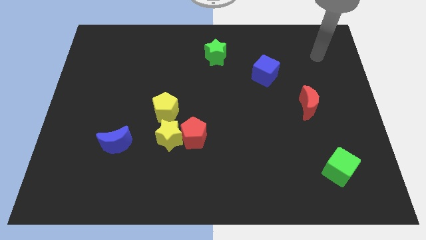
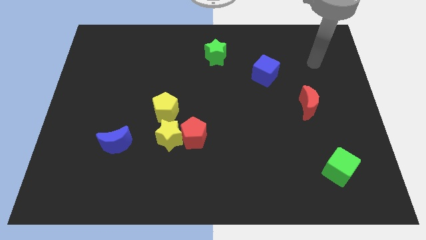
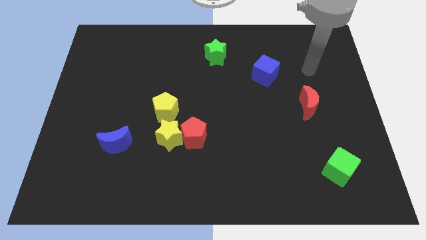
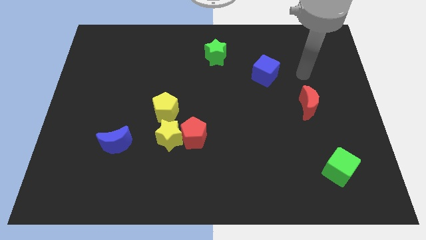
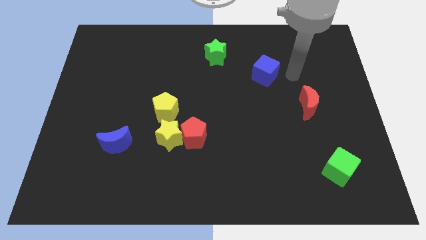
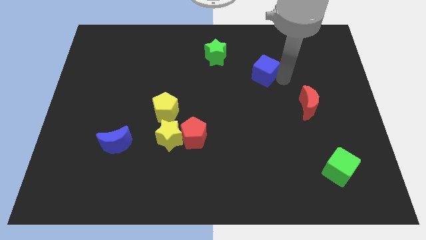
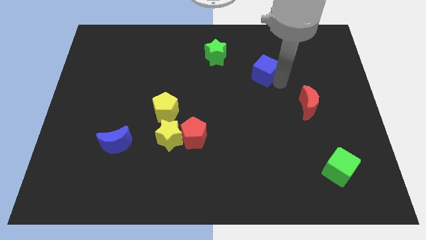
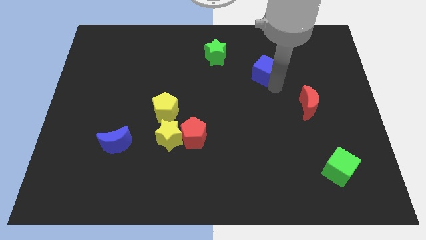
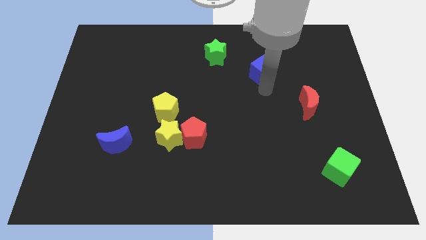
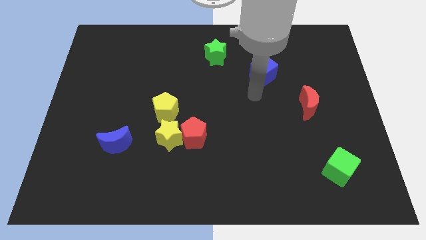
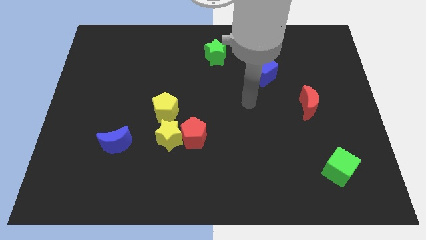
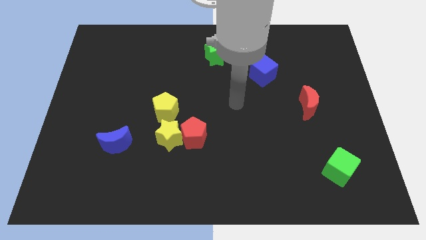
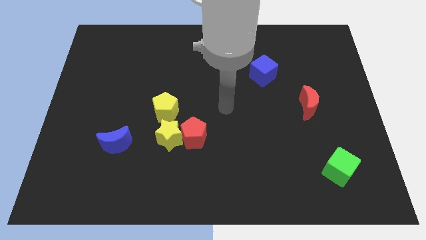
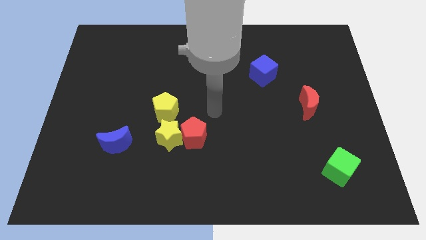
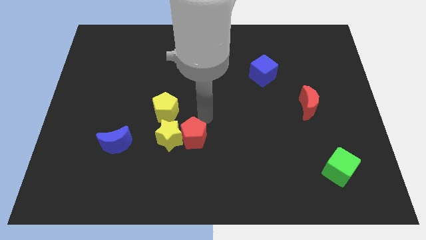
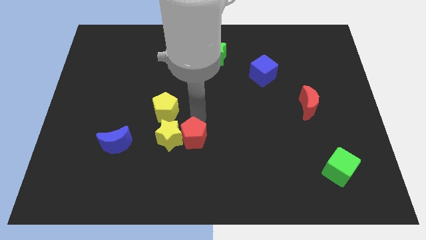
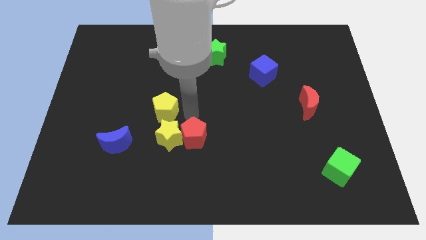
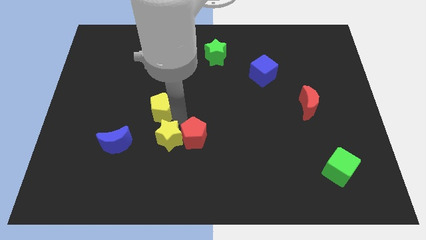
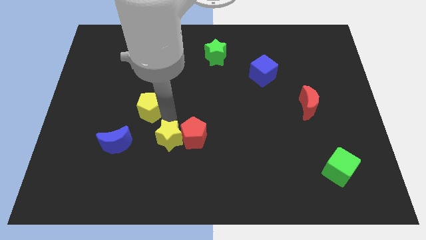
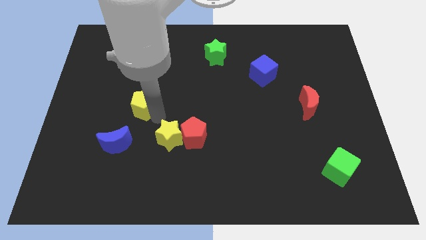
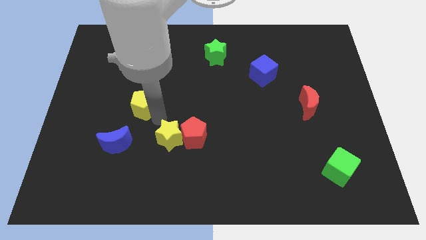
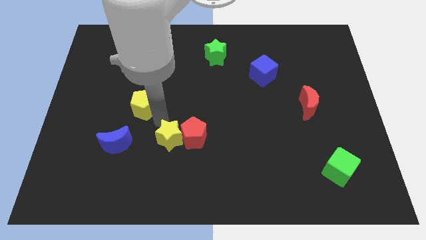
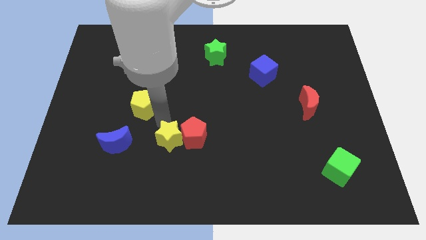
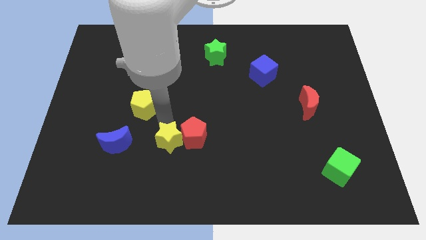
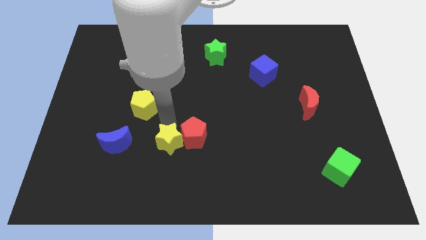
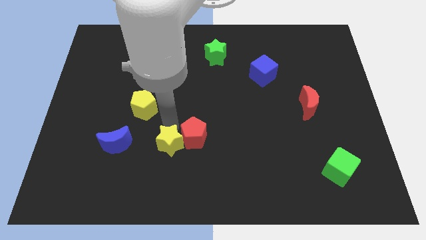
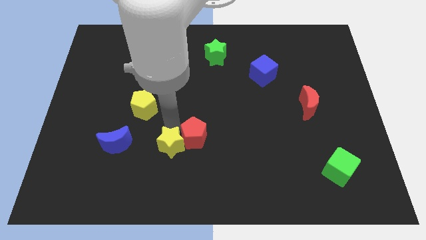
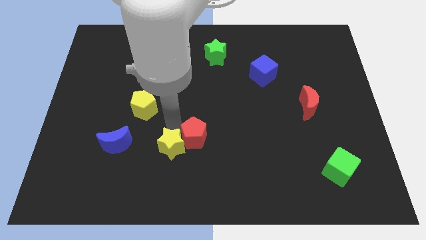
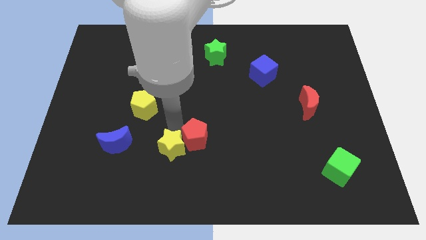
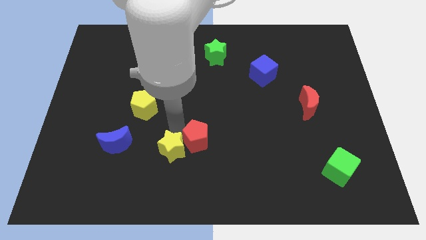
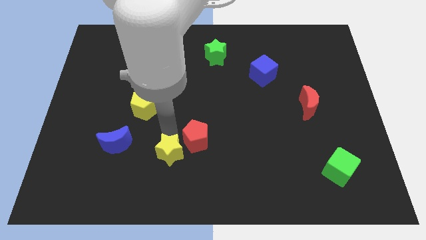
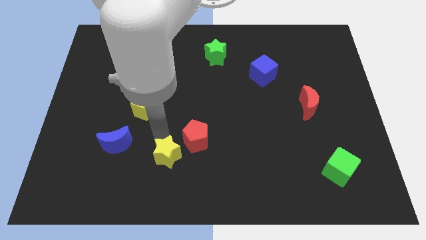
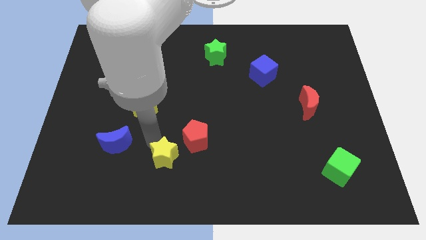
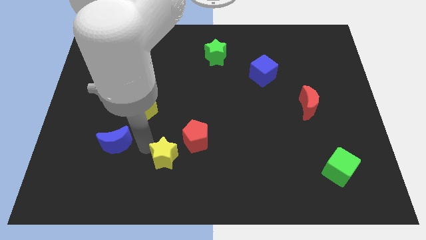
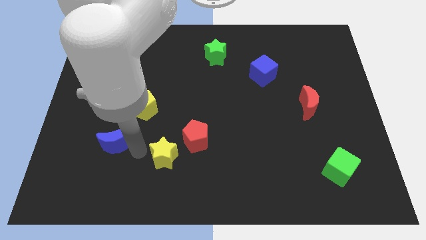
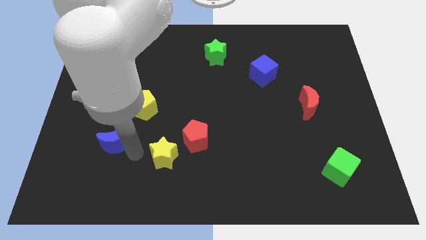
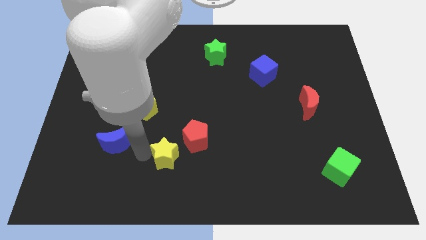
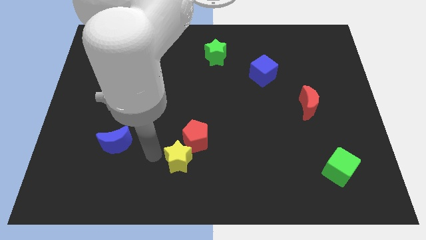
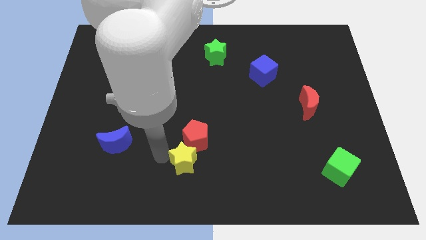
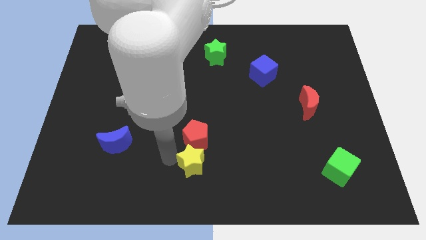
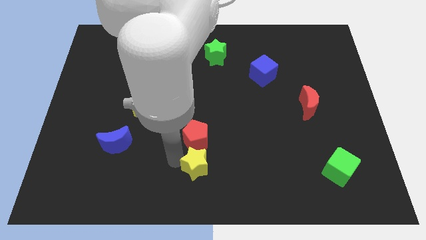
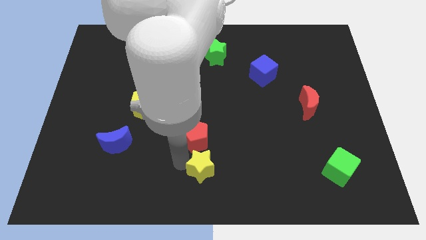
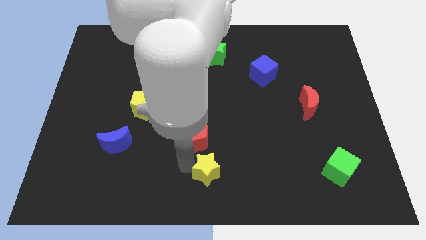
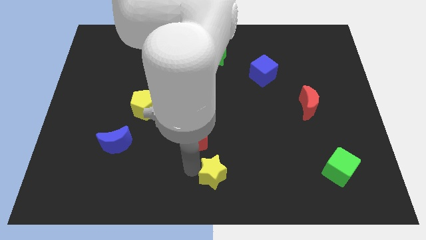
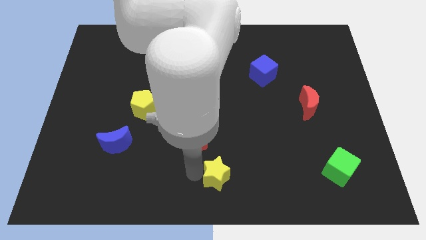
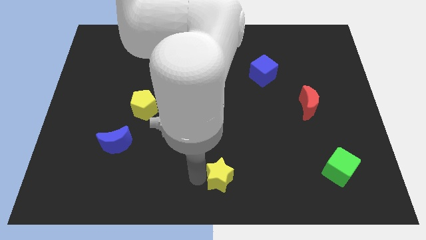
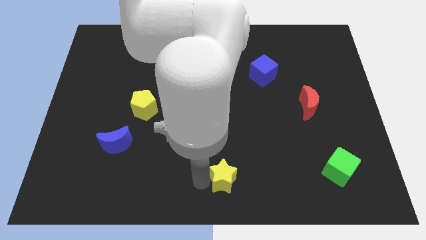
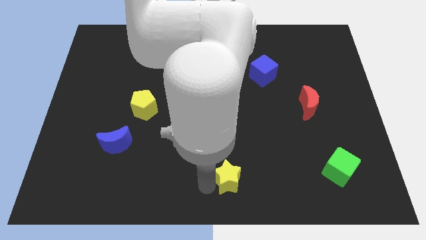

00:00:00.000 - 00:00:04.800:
slide the yellow star slightly right

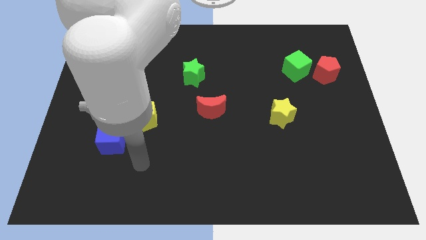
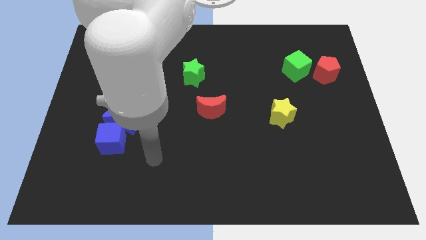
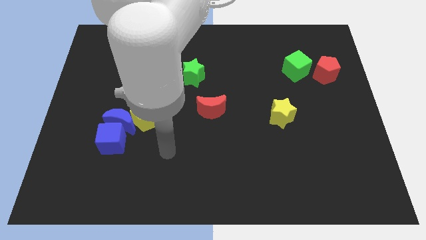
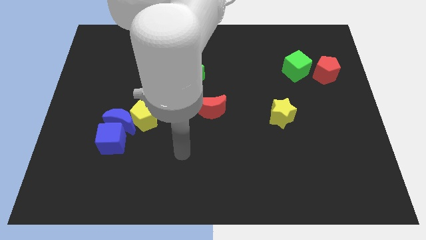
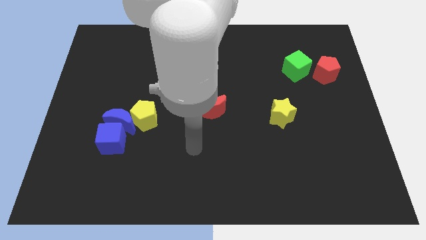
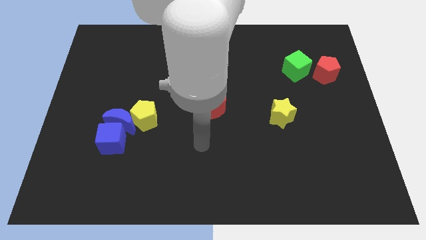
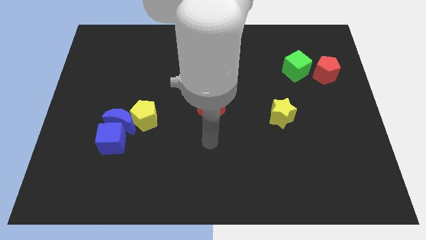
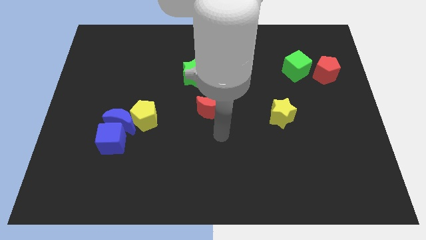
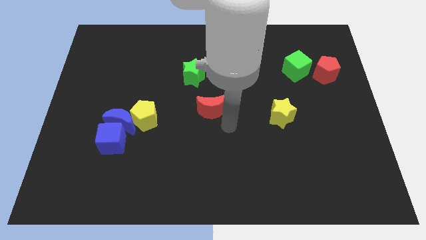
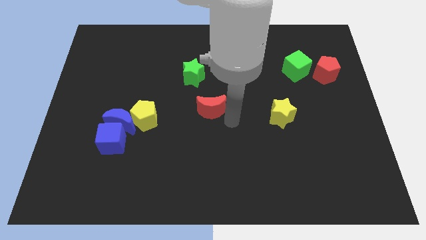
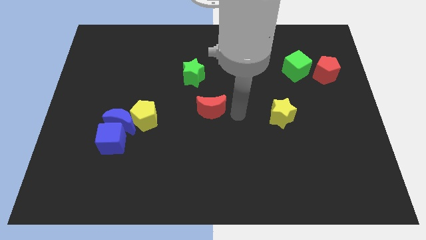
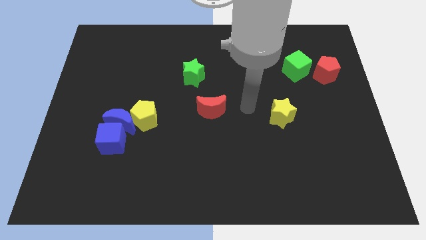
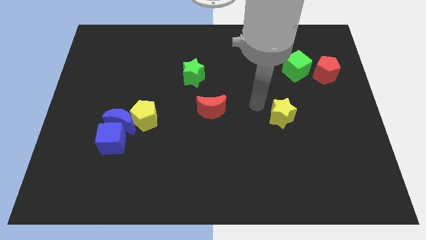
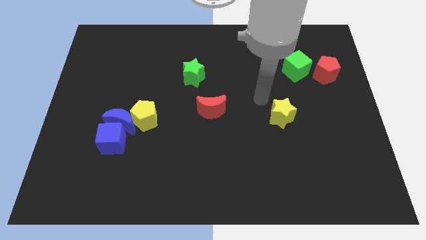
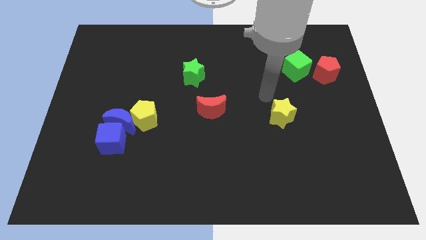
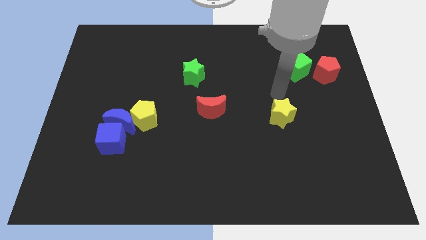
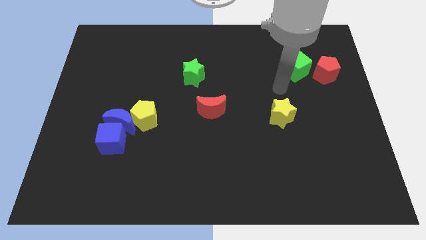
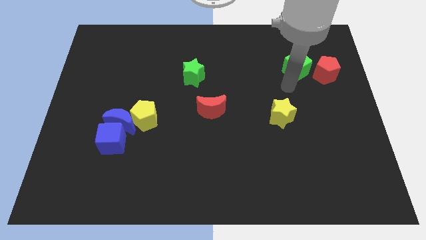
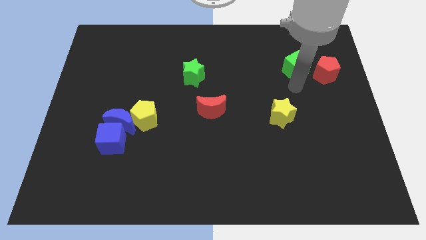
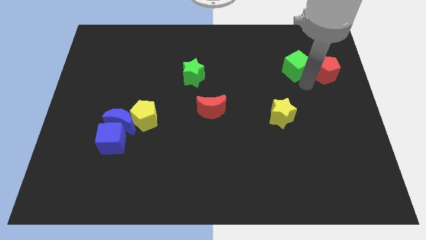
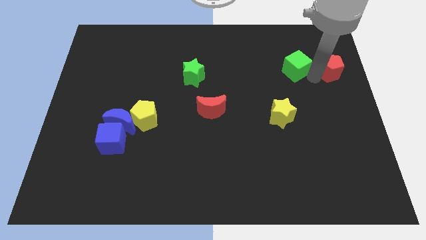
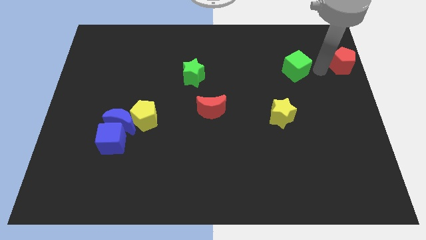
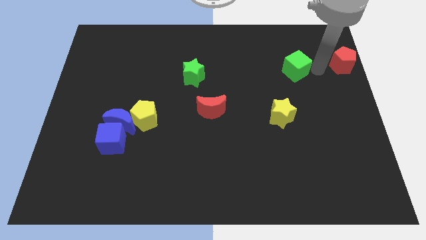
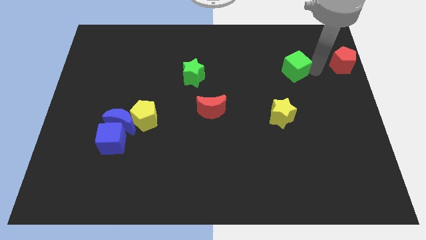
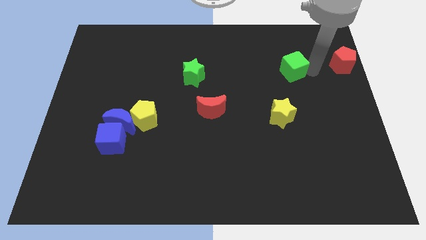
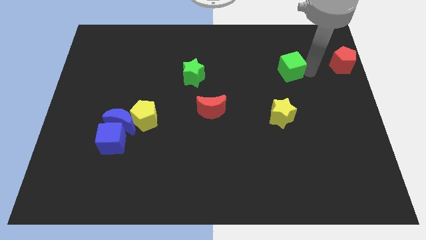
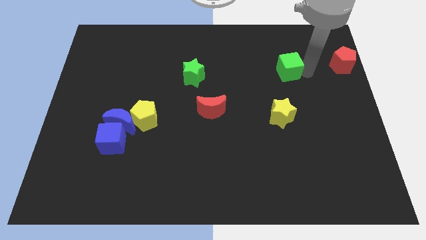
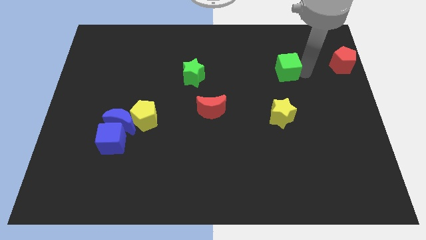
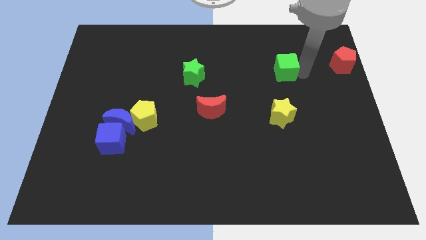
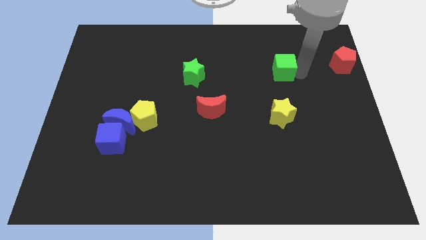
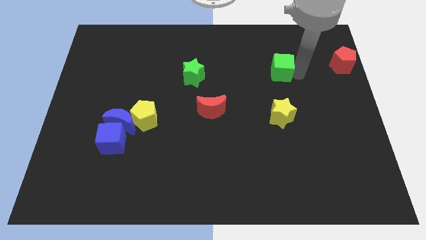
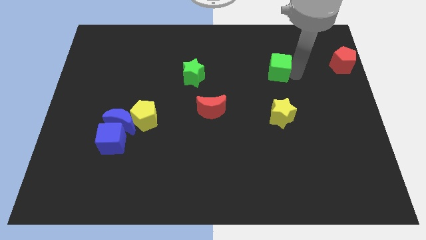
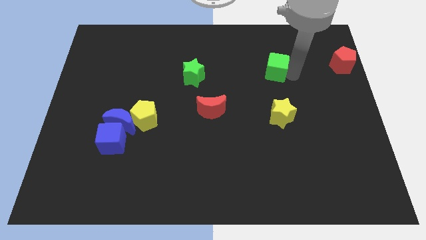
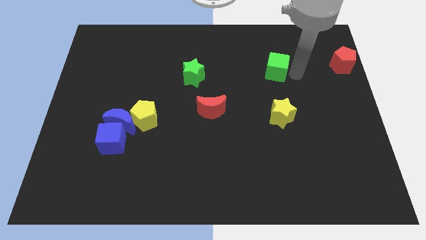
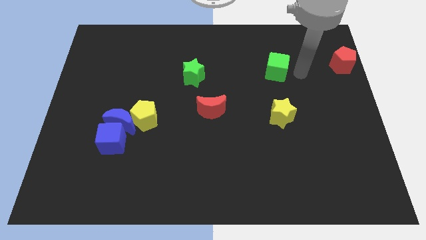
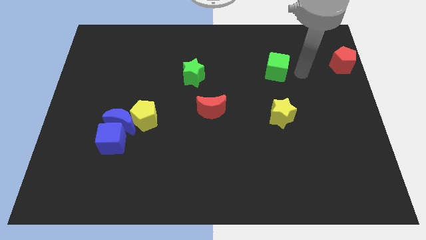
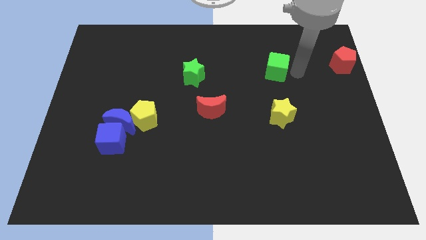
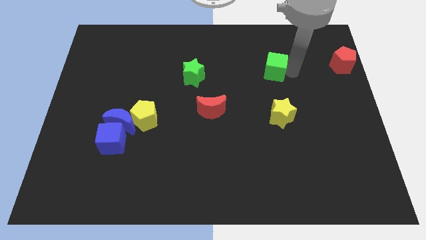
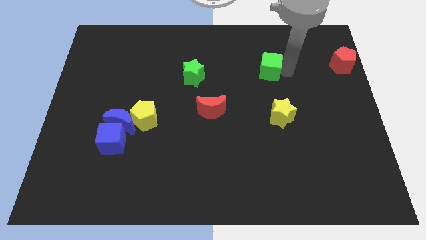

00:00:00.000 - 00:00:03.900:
move the green cube to the left somewhat
